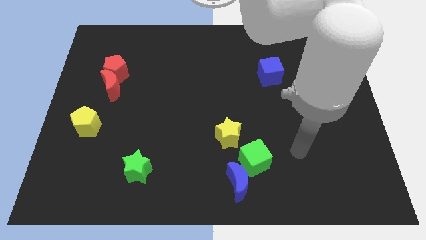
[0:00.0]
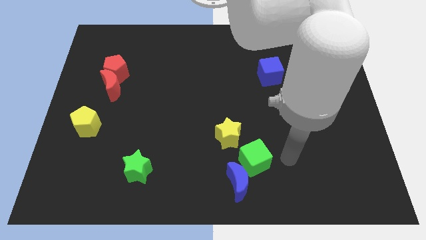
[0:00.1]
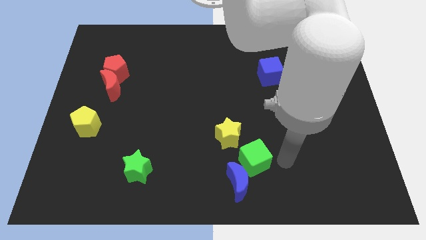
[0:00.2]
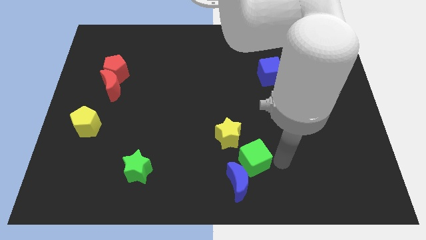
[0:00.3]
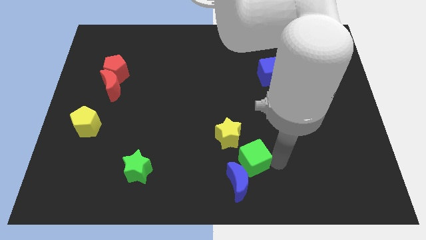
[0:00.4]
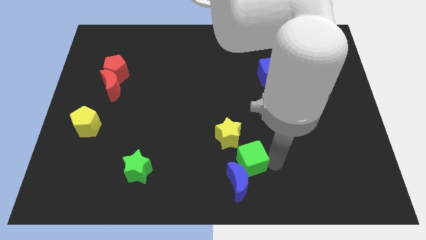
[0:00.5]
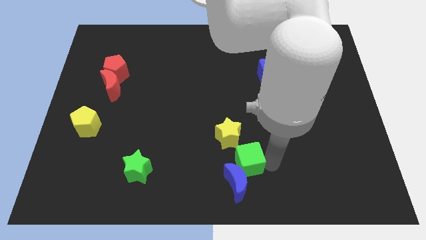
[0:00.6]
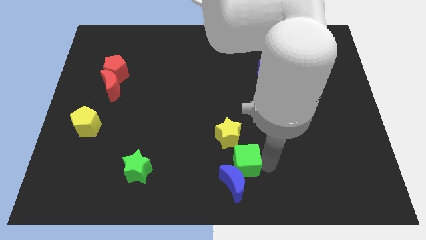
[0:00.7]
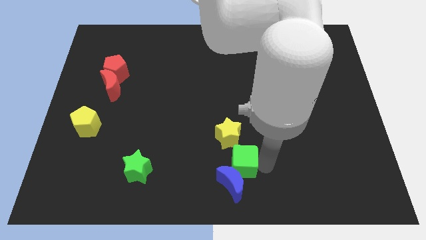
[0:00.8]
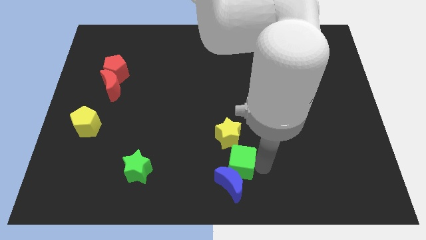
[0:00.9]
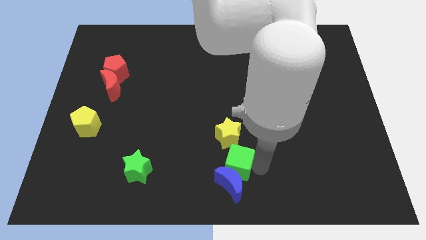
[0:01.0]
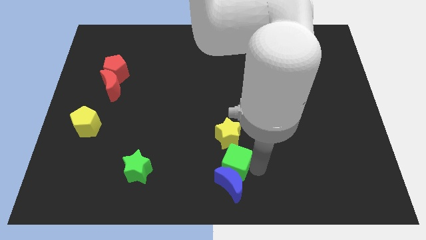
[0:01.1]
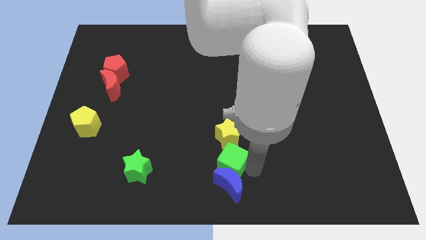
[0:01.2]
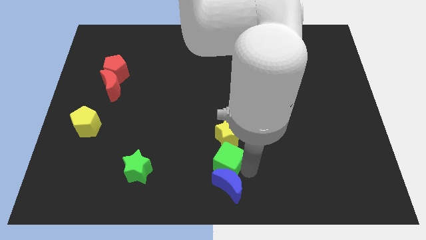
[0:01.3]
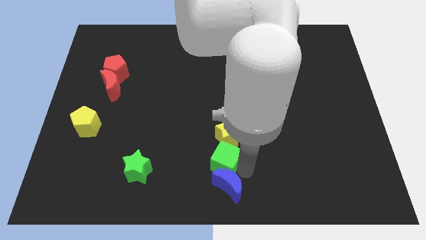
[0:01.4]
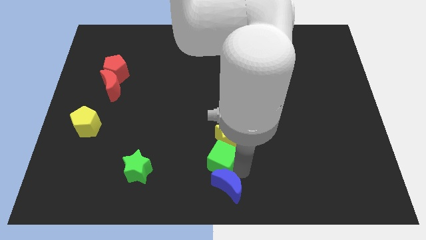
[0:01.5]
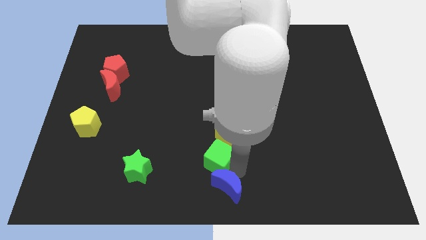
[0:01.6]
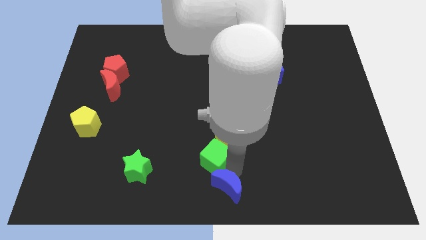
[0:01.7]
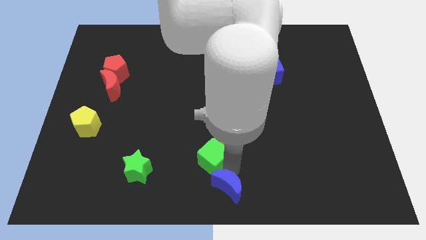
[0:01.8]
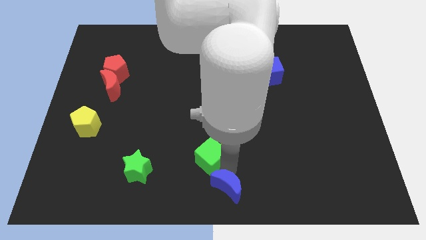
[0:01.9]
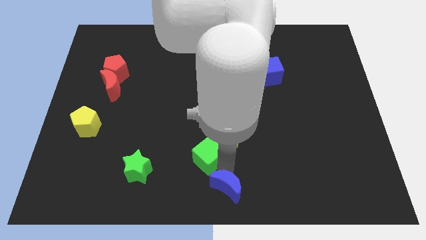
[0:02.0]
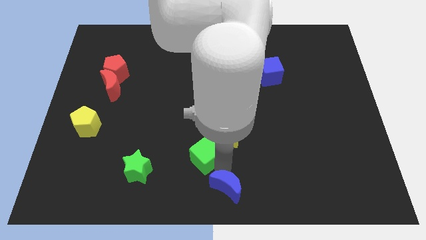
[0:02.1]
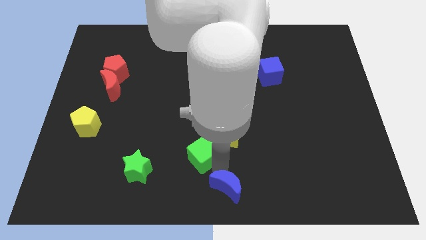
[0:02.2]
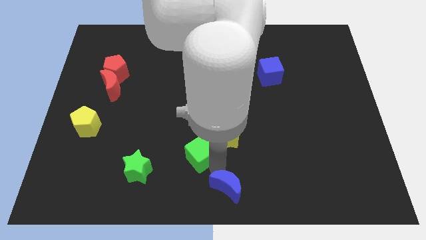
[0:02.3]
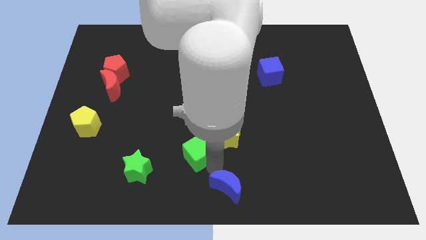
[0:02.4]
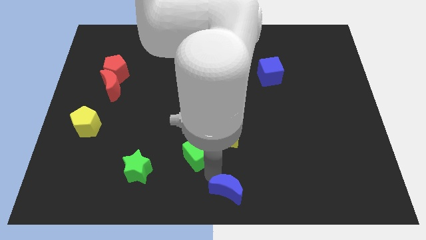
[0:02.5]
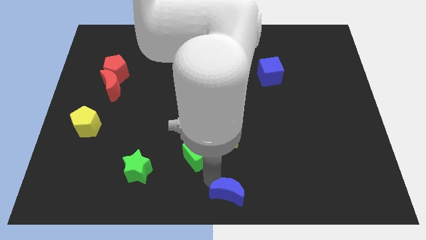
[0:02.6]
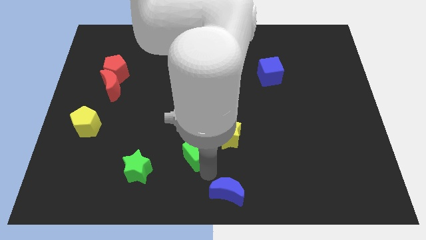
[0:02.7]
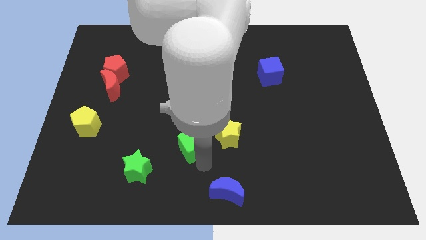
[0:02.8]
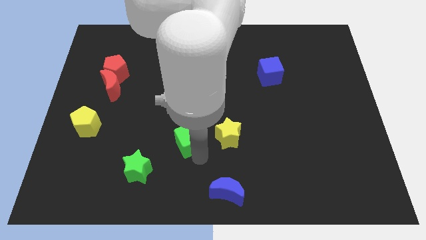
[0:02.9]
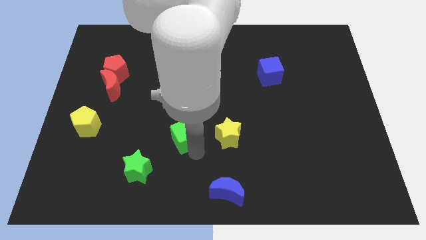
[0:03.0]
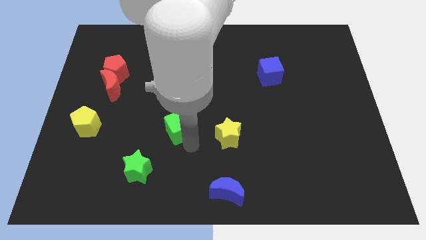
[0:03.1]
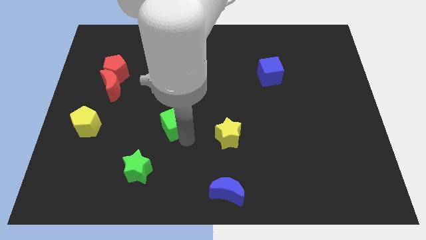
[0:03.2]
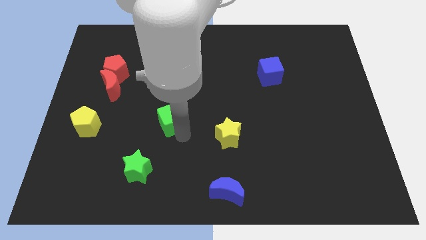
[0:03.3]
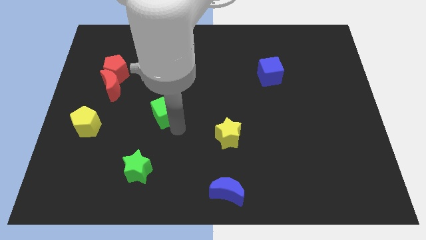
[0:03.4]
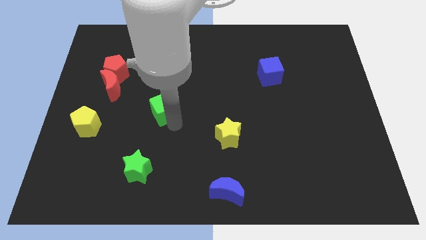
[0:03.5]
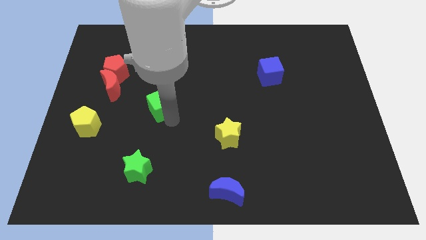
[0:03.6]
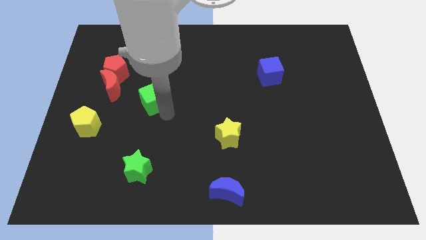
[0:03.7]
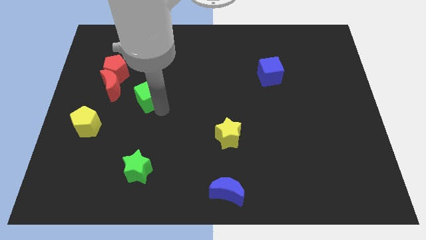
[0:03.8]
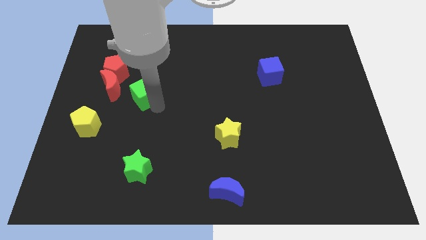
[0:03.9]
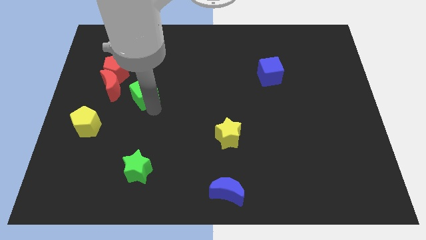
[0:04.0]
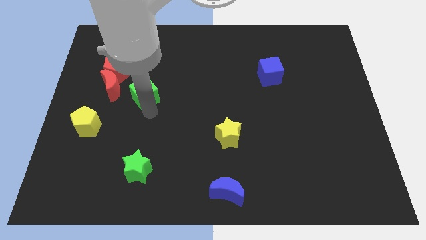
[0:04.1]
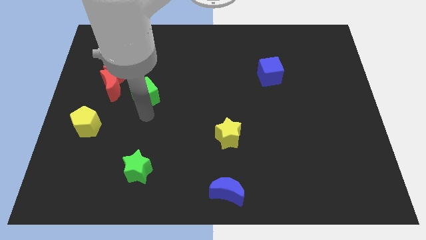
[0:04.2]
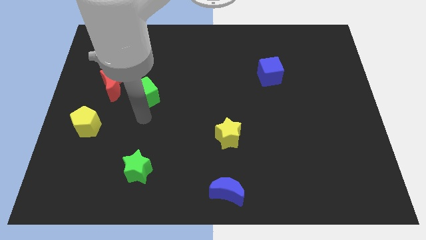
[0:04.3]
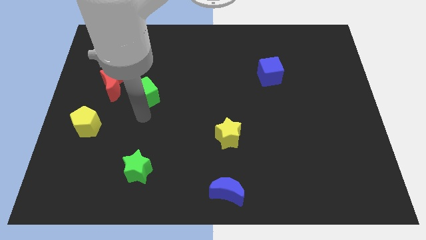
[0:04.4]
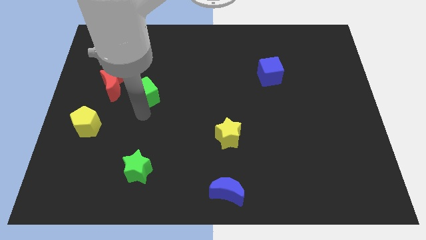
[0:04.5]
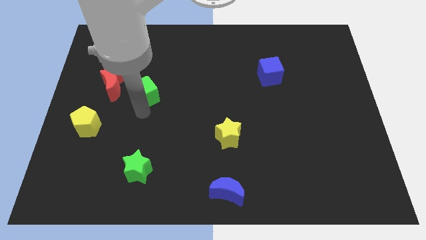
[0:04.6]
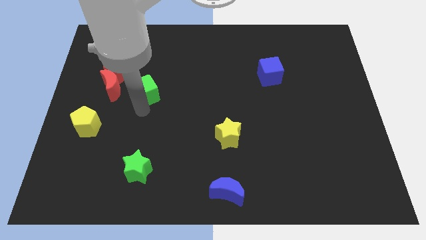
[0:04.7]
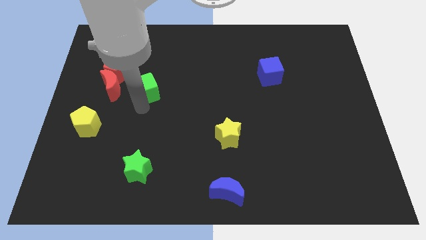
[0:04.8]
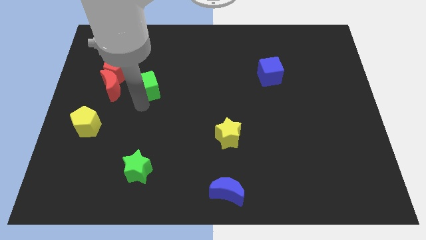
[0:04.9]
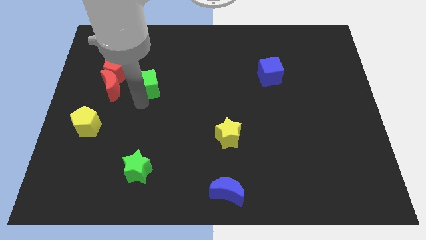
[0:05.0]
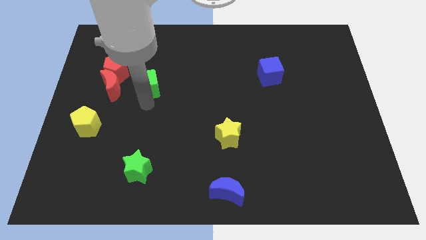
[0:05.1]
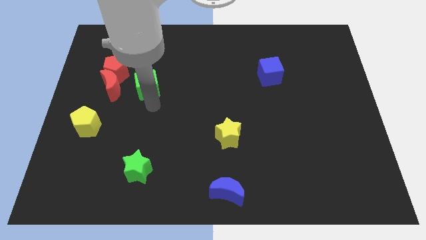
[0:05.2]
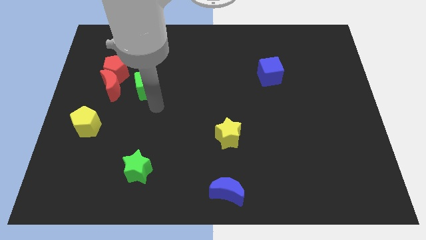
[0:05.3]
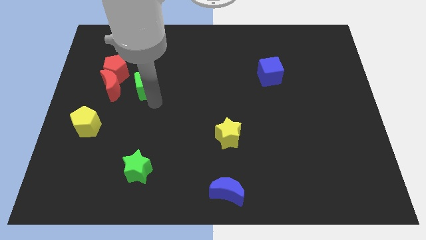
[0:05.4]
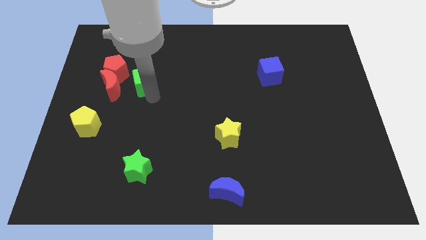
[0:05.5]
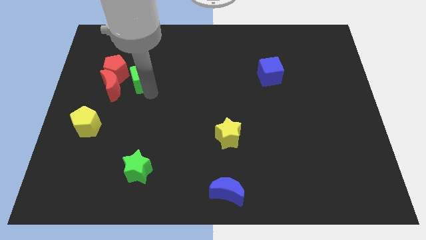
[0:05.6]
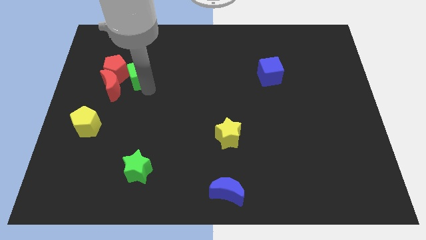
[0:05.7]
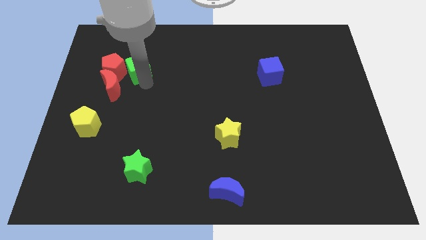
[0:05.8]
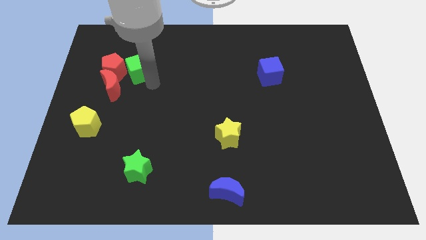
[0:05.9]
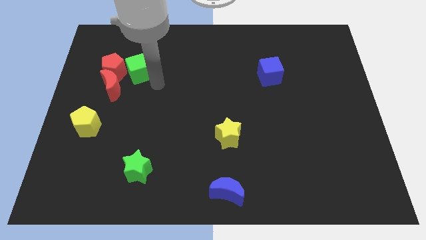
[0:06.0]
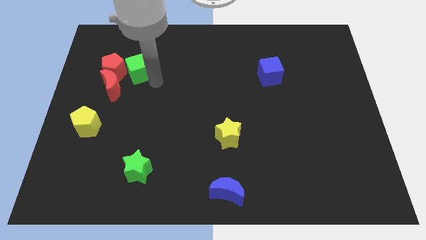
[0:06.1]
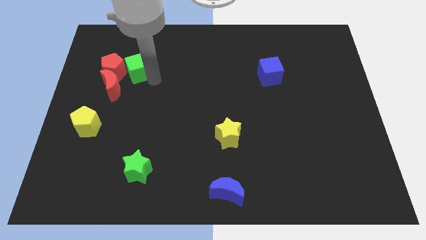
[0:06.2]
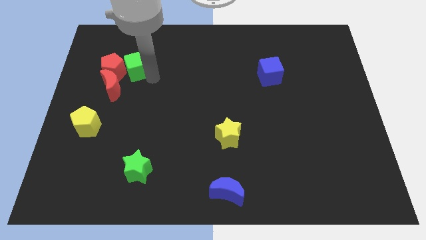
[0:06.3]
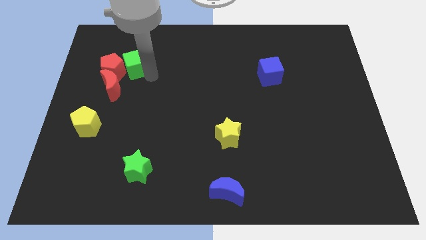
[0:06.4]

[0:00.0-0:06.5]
push the green cube above the red moon

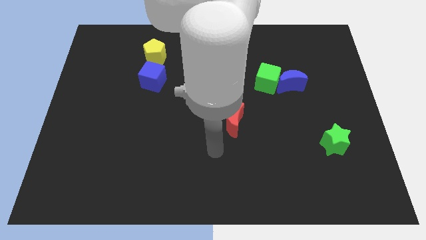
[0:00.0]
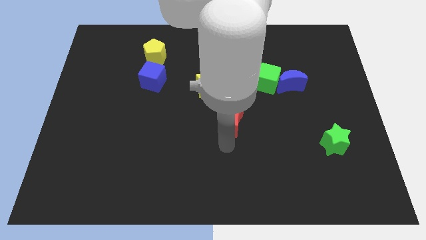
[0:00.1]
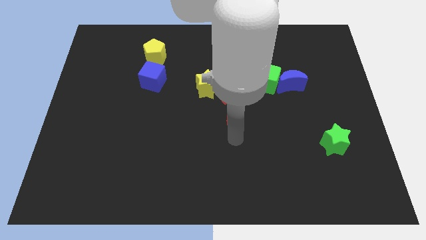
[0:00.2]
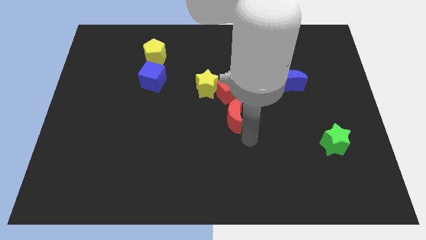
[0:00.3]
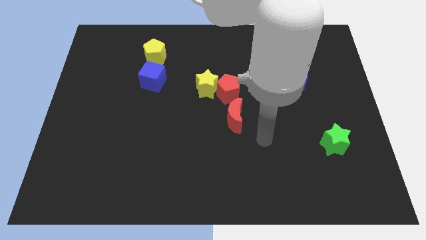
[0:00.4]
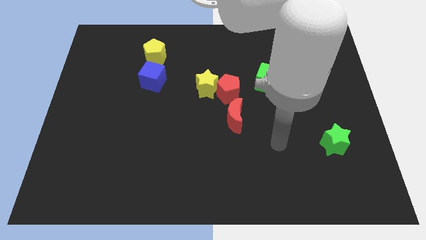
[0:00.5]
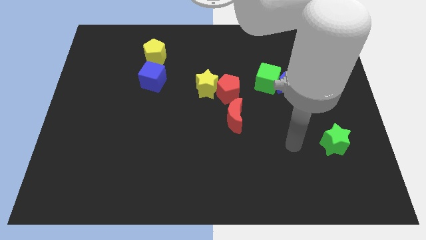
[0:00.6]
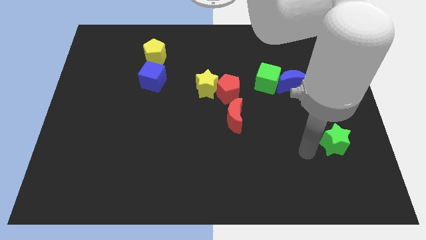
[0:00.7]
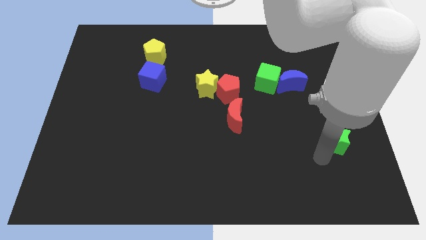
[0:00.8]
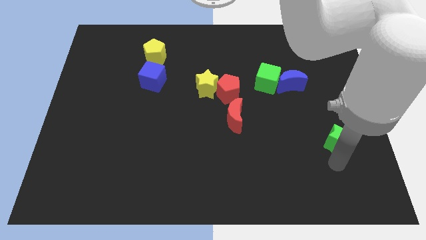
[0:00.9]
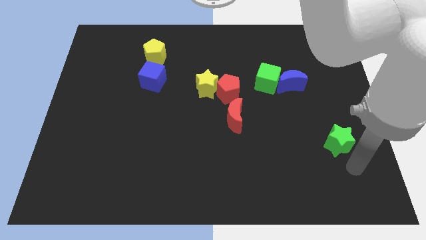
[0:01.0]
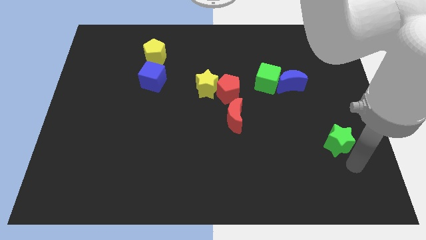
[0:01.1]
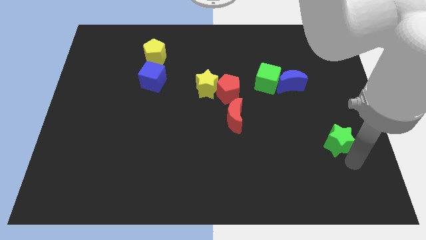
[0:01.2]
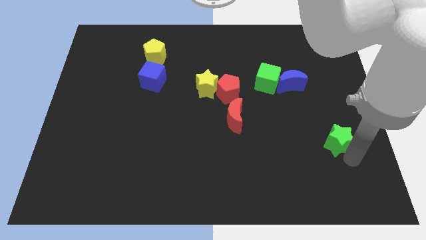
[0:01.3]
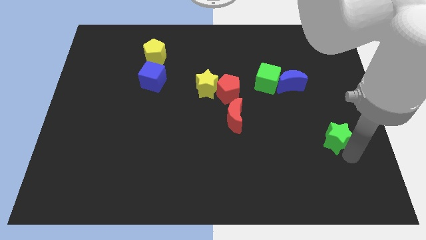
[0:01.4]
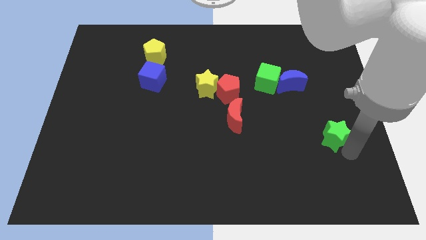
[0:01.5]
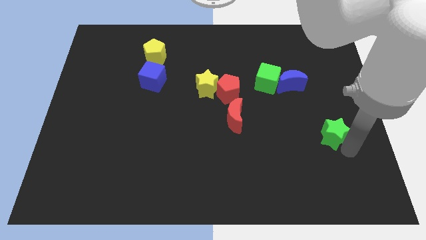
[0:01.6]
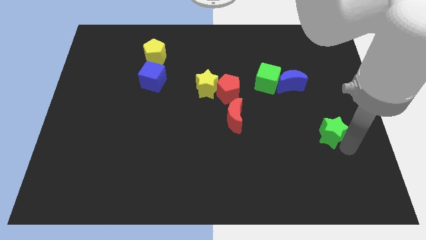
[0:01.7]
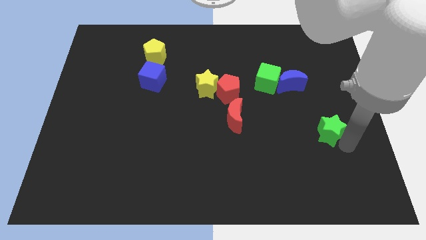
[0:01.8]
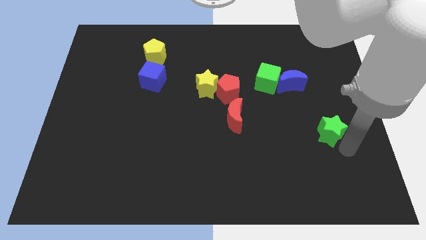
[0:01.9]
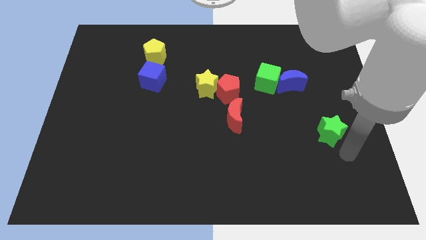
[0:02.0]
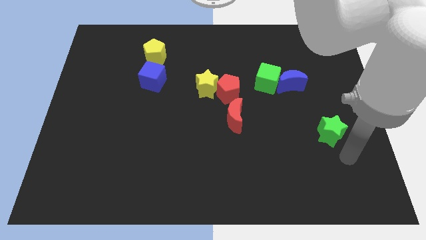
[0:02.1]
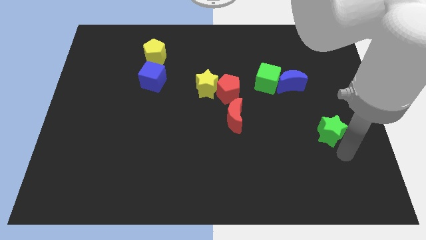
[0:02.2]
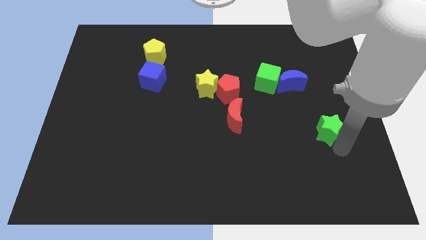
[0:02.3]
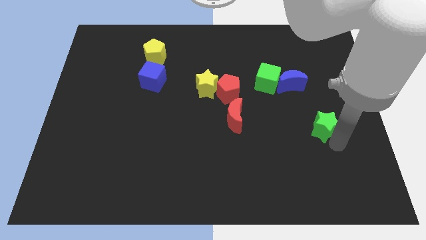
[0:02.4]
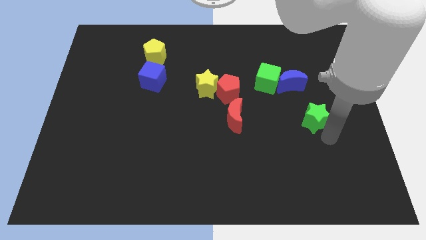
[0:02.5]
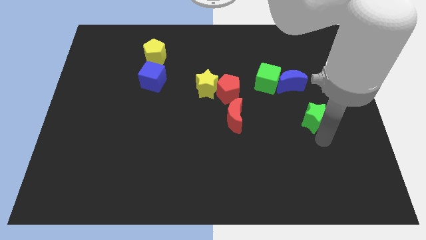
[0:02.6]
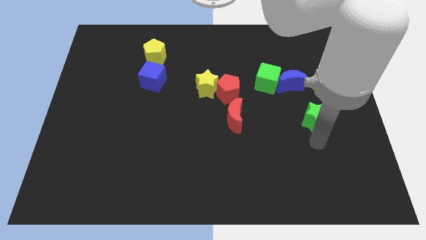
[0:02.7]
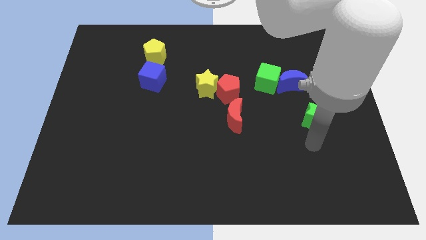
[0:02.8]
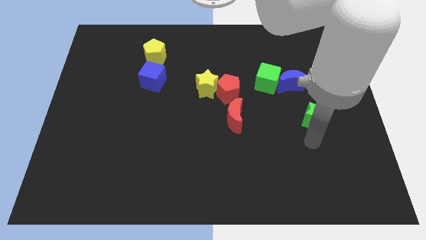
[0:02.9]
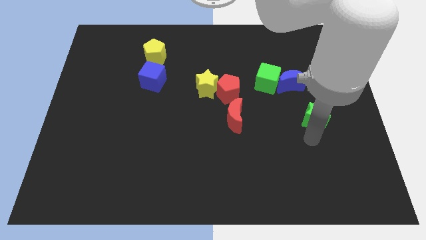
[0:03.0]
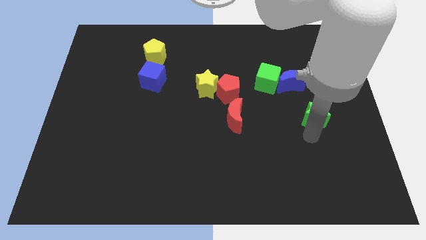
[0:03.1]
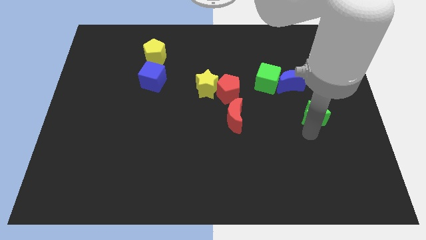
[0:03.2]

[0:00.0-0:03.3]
slide the green star to the bottom right of the blue moon
